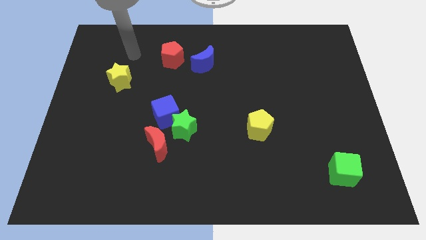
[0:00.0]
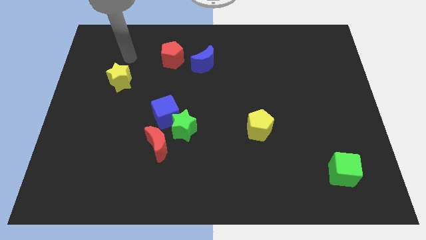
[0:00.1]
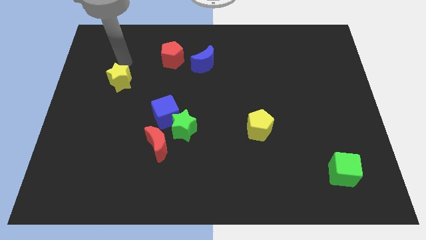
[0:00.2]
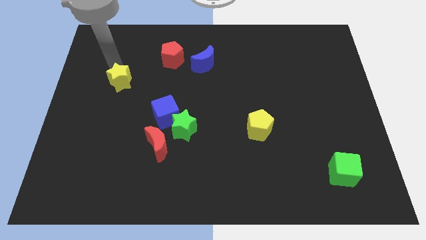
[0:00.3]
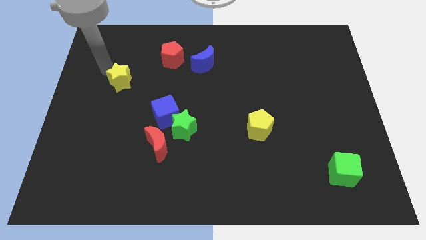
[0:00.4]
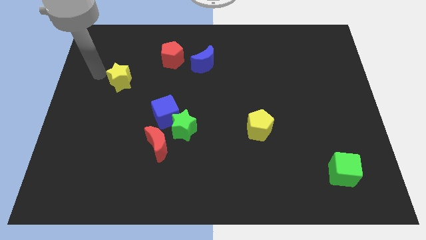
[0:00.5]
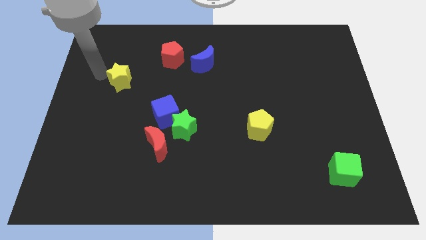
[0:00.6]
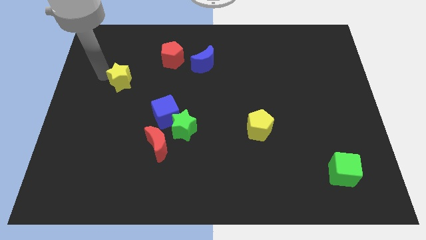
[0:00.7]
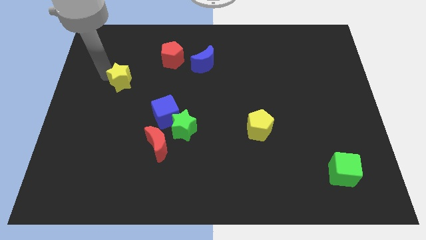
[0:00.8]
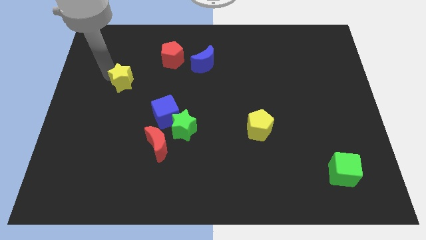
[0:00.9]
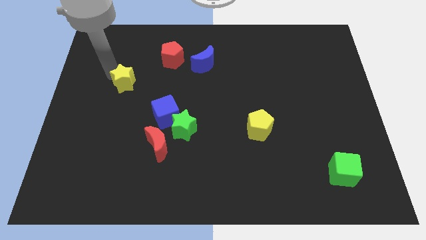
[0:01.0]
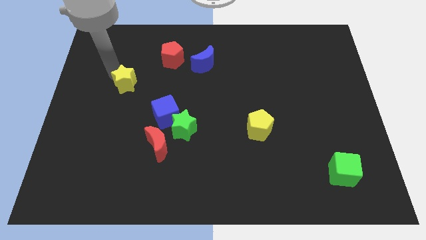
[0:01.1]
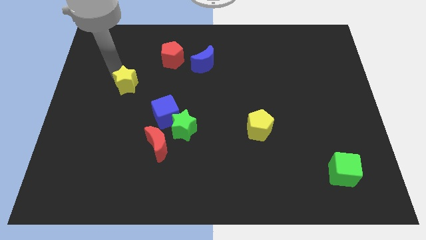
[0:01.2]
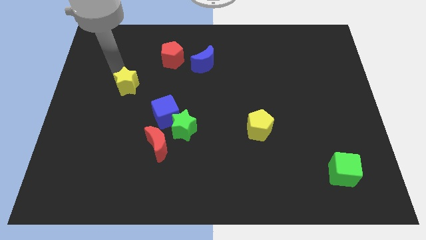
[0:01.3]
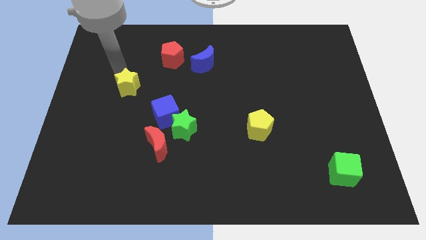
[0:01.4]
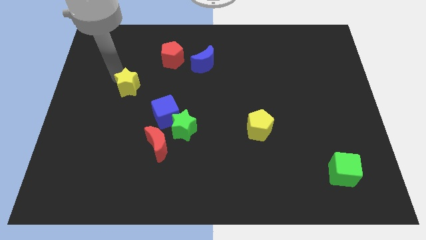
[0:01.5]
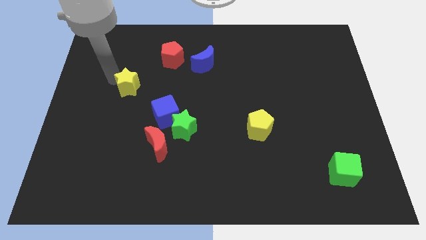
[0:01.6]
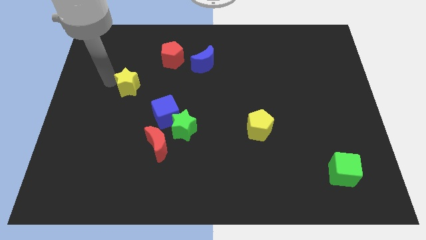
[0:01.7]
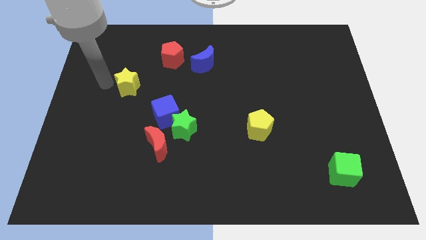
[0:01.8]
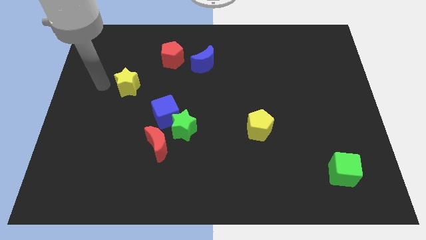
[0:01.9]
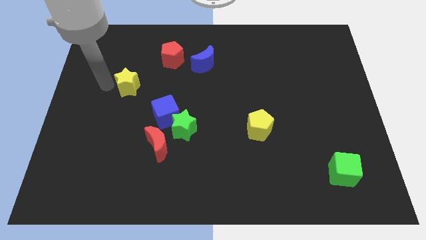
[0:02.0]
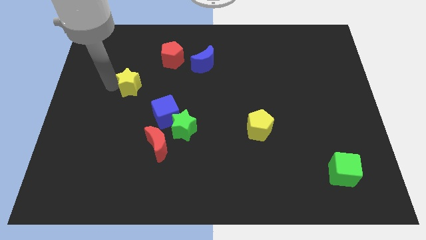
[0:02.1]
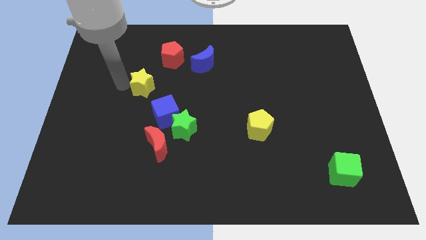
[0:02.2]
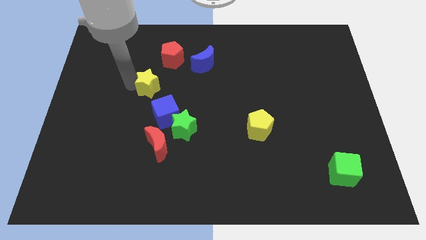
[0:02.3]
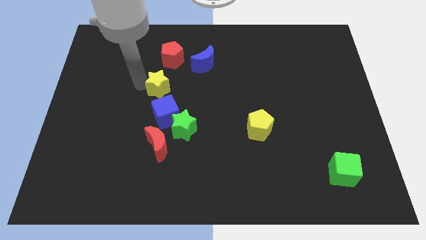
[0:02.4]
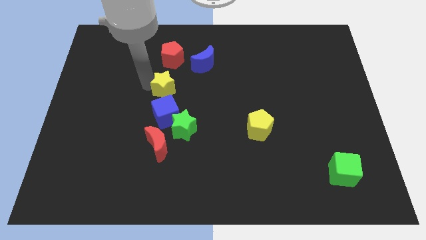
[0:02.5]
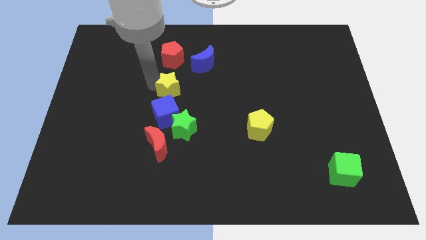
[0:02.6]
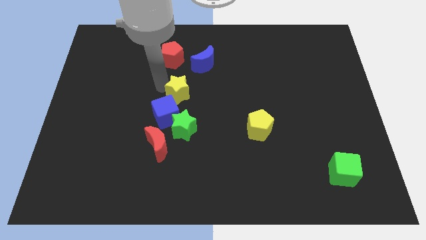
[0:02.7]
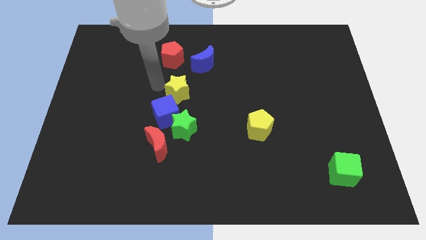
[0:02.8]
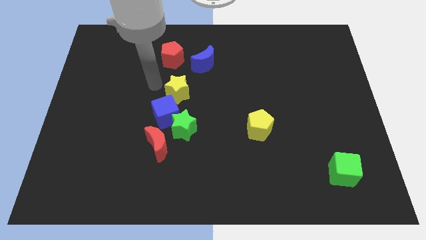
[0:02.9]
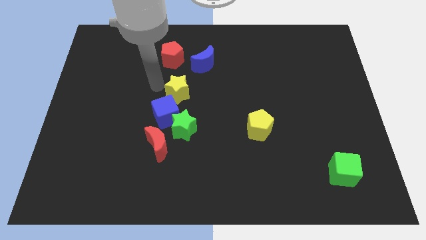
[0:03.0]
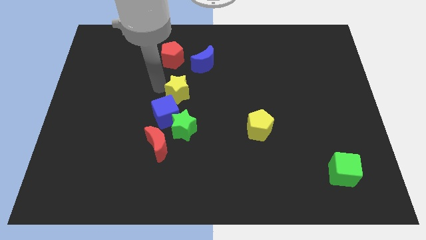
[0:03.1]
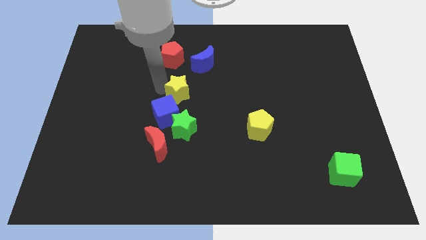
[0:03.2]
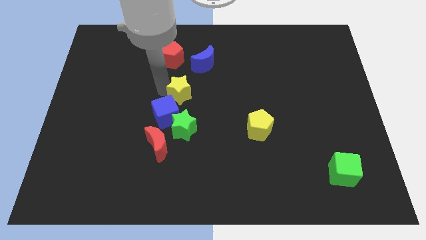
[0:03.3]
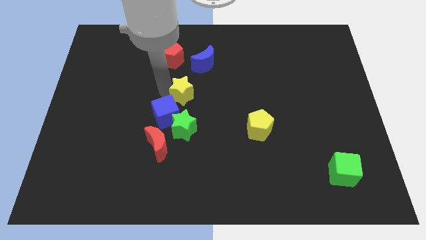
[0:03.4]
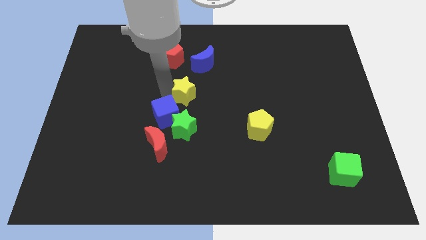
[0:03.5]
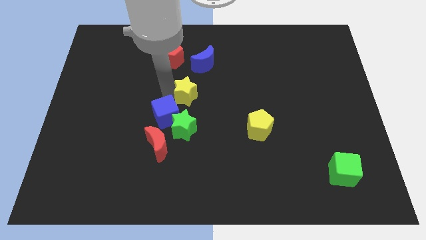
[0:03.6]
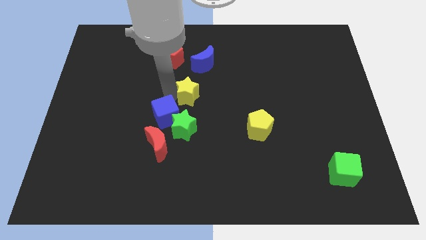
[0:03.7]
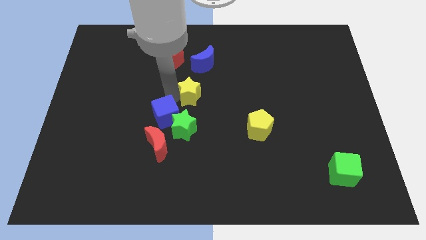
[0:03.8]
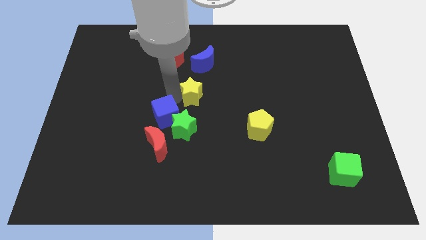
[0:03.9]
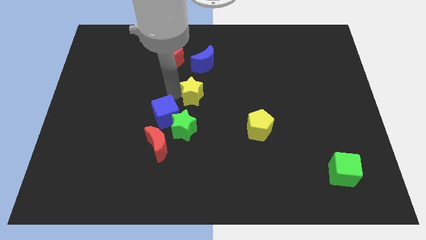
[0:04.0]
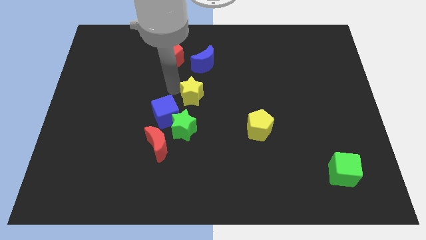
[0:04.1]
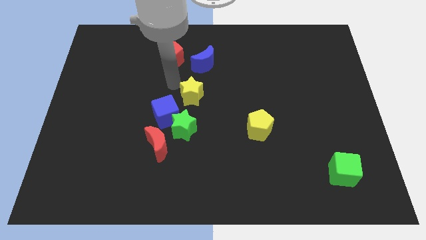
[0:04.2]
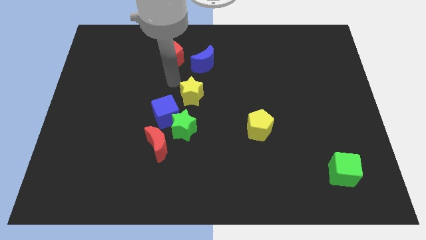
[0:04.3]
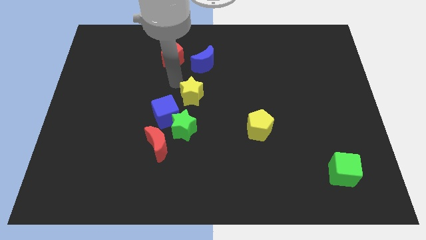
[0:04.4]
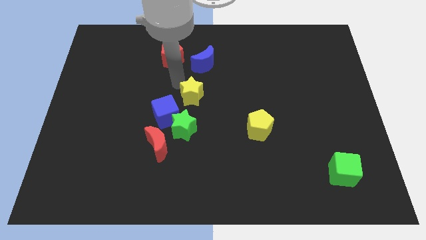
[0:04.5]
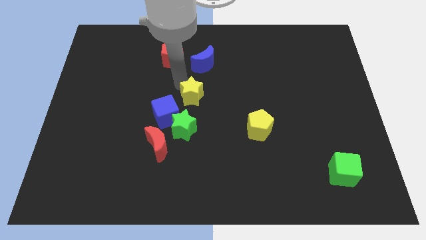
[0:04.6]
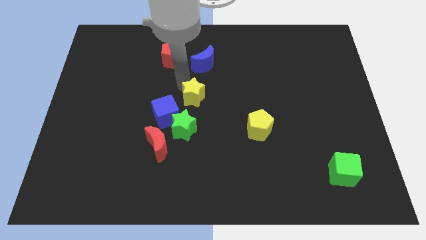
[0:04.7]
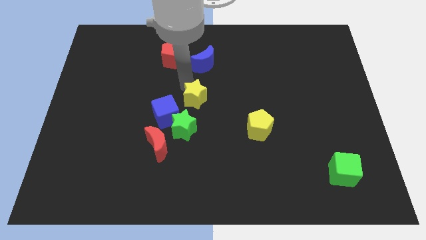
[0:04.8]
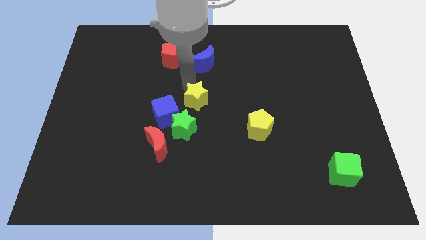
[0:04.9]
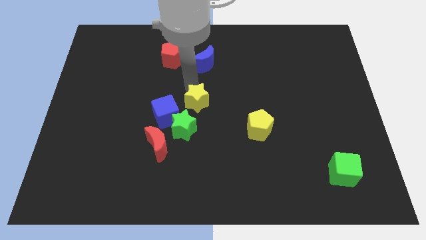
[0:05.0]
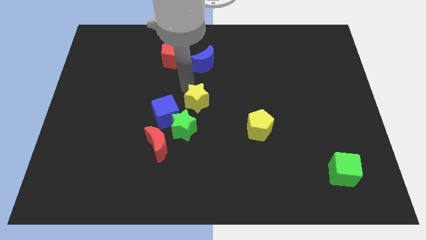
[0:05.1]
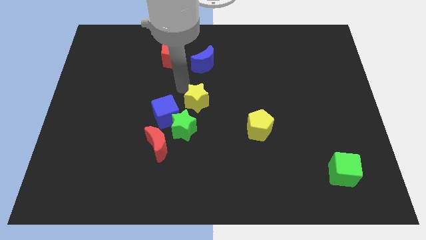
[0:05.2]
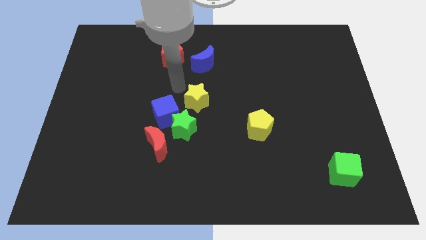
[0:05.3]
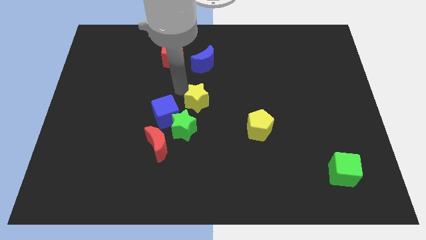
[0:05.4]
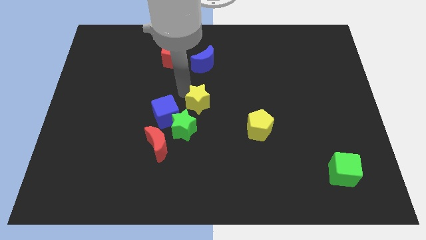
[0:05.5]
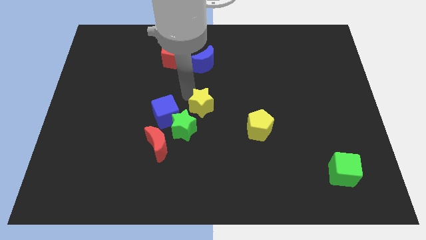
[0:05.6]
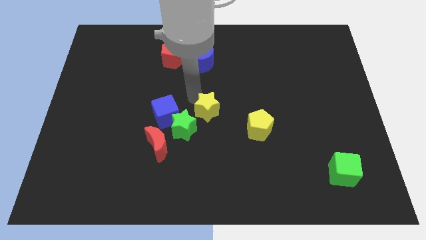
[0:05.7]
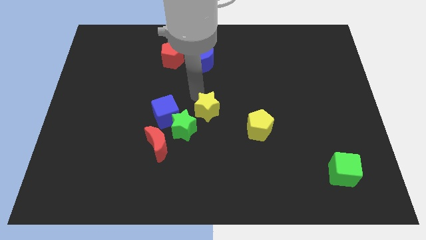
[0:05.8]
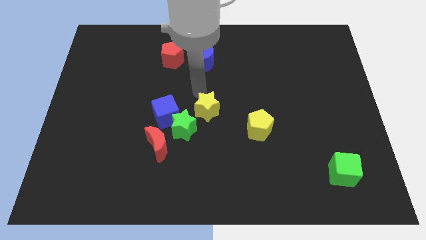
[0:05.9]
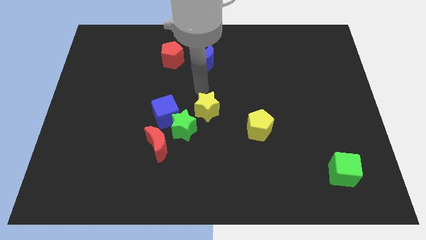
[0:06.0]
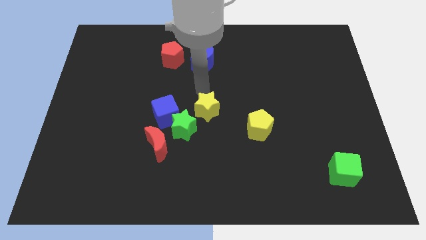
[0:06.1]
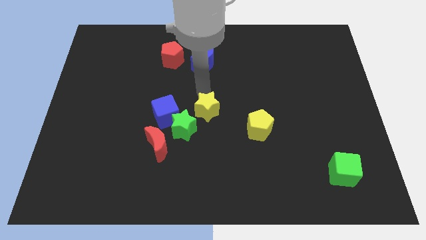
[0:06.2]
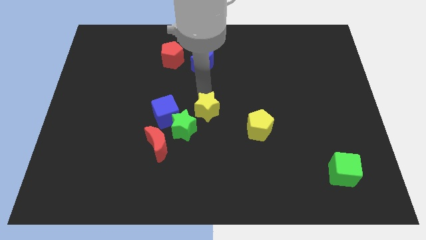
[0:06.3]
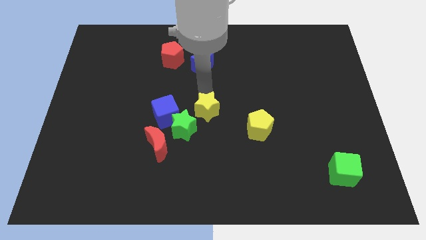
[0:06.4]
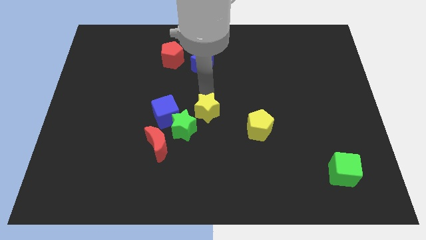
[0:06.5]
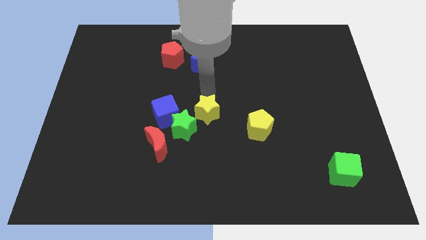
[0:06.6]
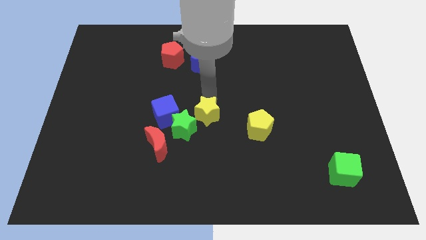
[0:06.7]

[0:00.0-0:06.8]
slide the yellow star diagonally down and to the right

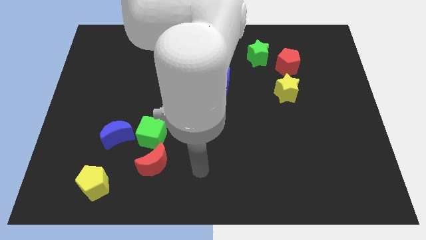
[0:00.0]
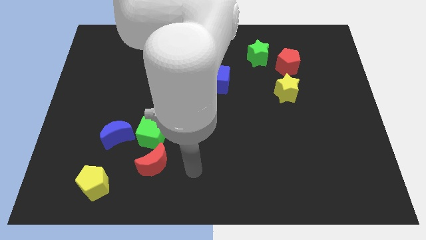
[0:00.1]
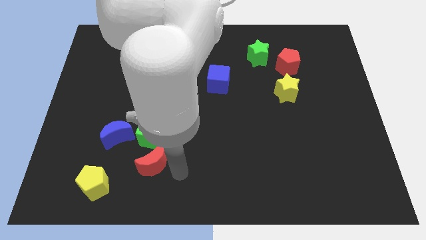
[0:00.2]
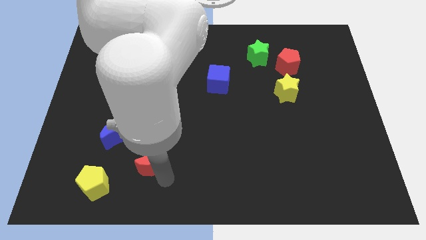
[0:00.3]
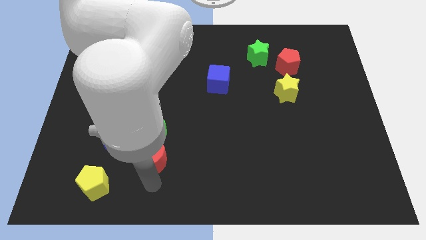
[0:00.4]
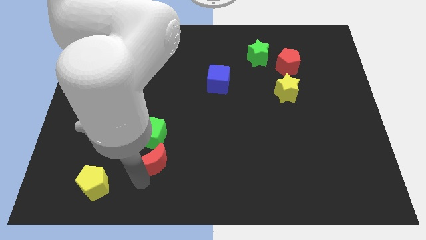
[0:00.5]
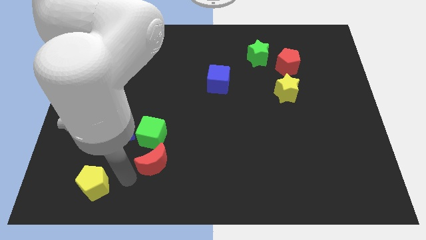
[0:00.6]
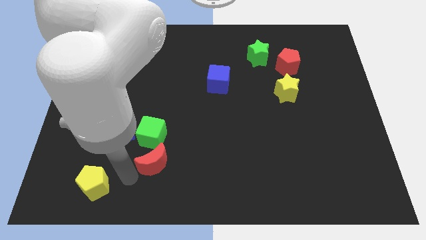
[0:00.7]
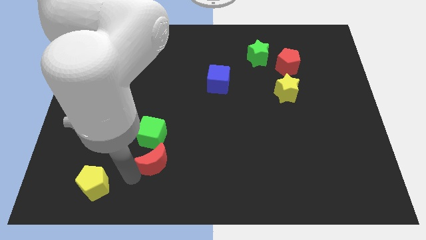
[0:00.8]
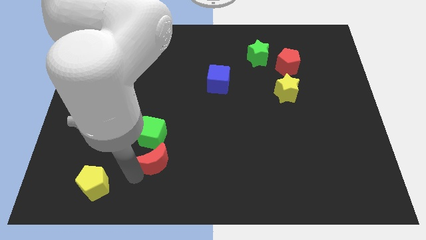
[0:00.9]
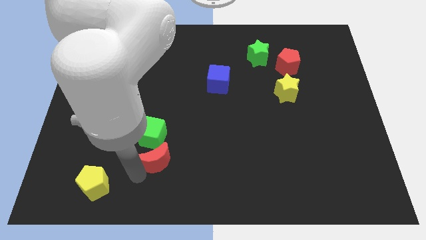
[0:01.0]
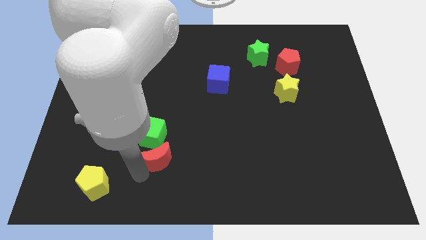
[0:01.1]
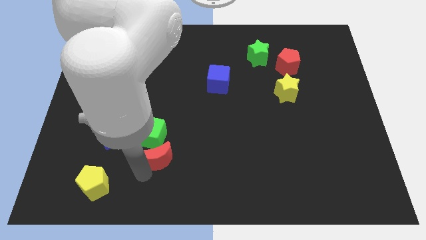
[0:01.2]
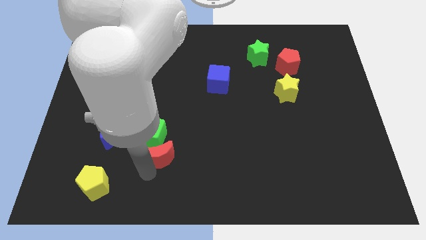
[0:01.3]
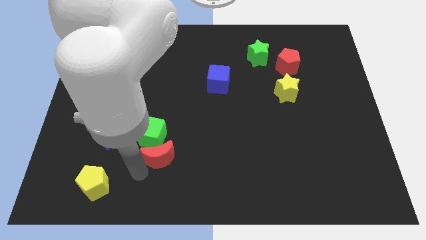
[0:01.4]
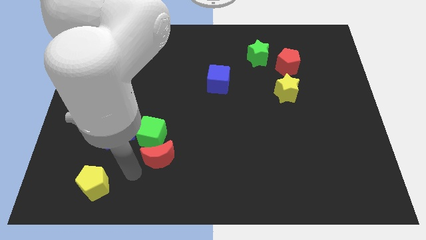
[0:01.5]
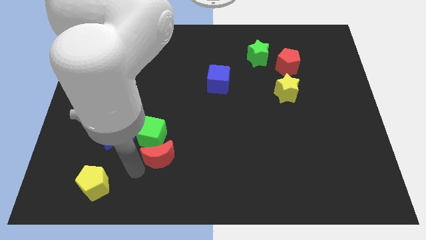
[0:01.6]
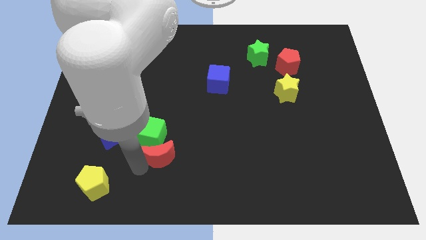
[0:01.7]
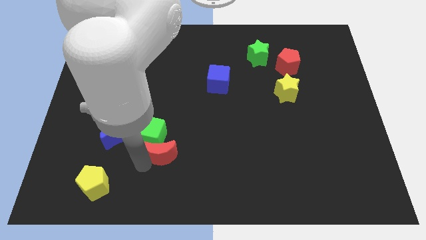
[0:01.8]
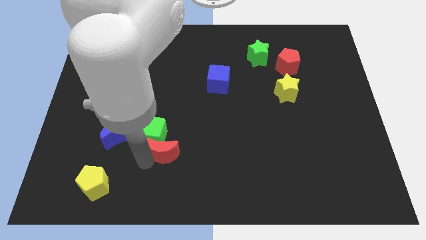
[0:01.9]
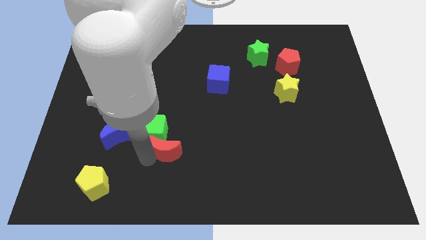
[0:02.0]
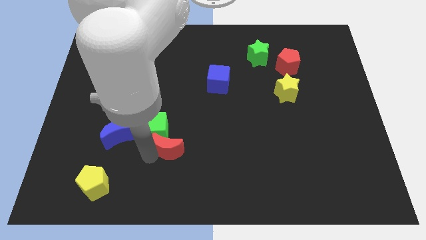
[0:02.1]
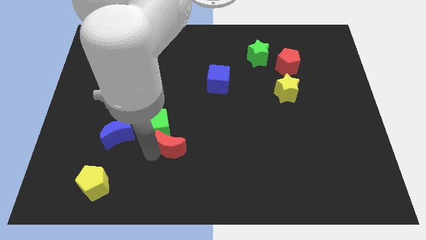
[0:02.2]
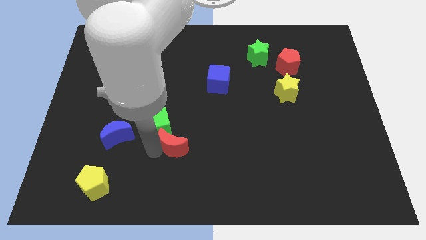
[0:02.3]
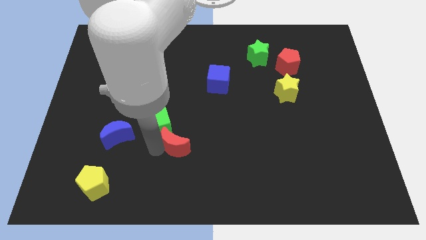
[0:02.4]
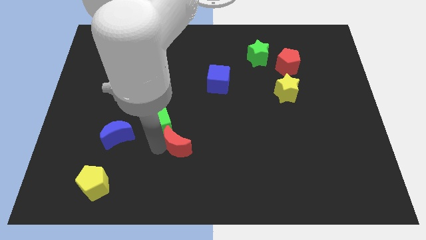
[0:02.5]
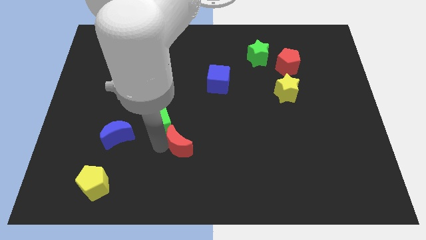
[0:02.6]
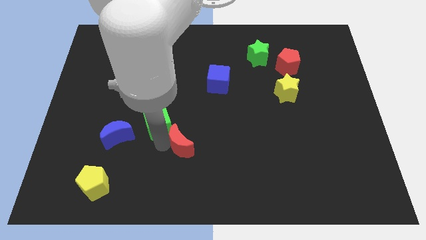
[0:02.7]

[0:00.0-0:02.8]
slide the red moon diagonally upwards and to the right a little
